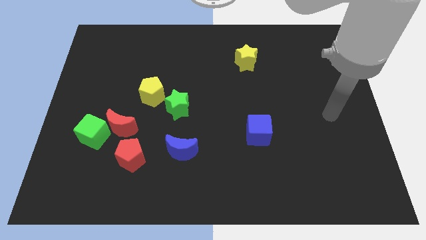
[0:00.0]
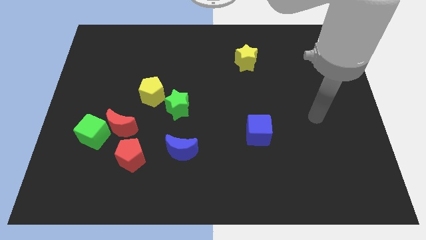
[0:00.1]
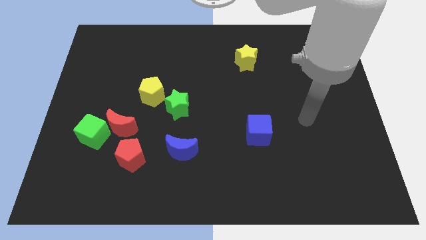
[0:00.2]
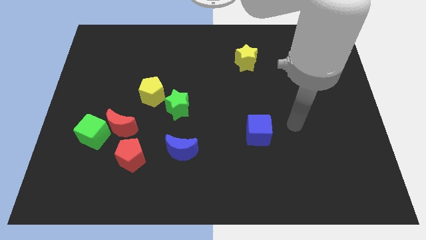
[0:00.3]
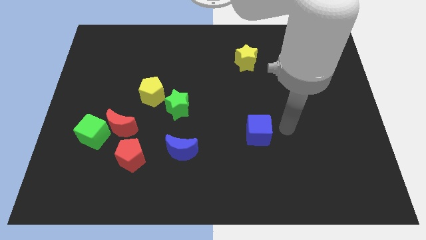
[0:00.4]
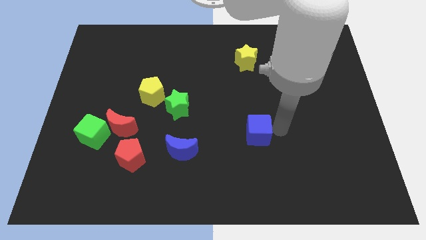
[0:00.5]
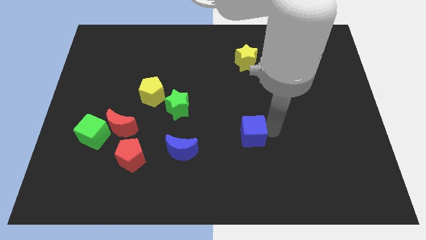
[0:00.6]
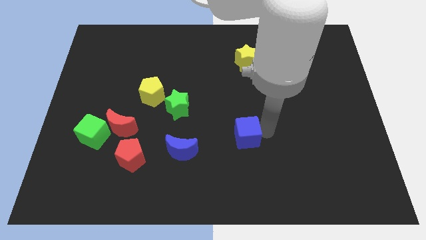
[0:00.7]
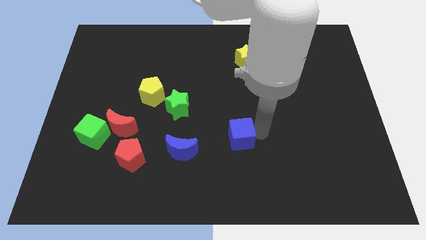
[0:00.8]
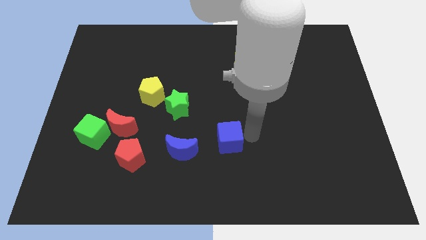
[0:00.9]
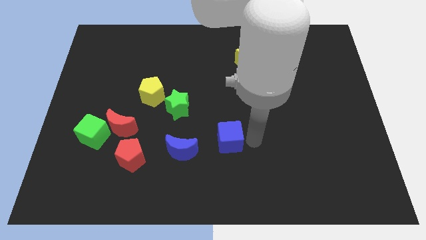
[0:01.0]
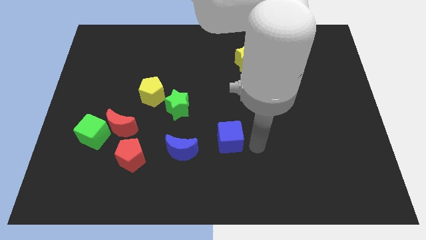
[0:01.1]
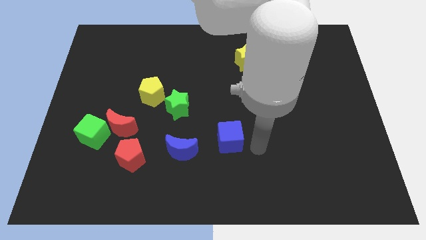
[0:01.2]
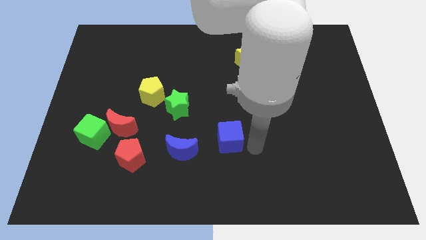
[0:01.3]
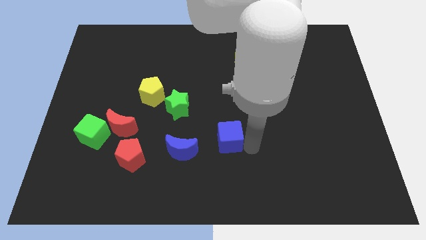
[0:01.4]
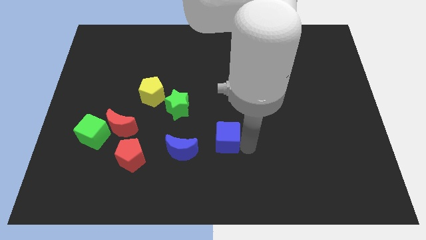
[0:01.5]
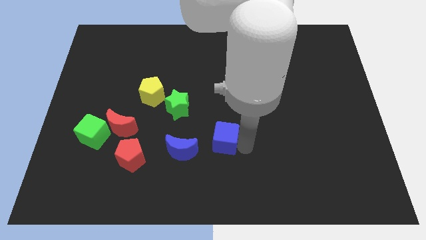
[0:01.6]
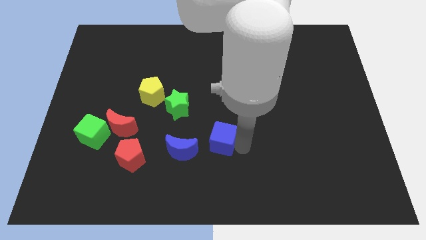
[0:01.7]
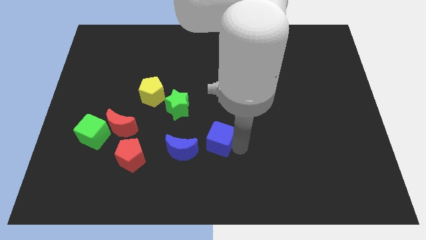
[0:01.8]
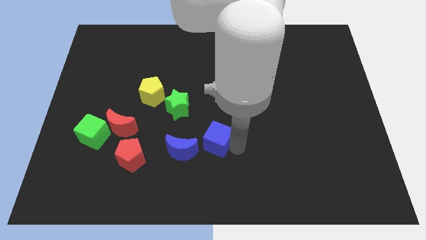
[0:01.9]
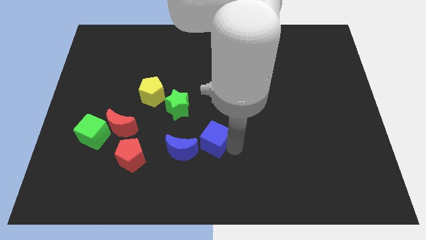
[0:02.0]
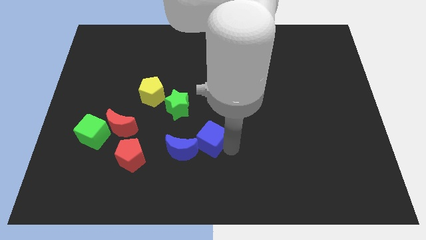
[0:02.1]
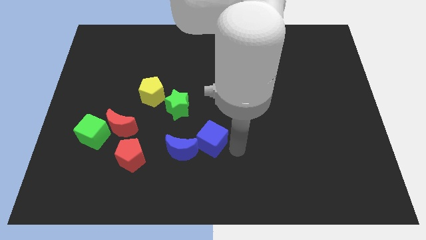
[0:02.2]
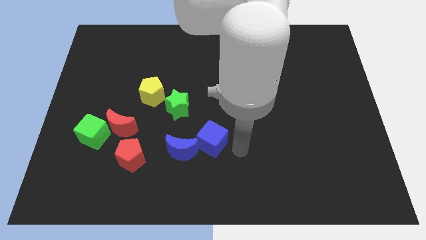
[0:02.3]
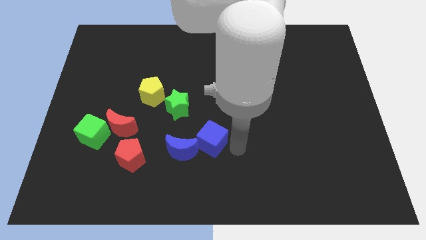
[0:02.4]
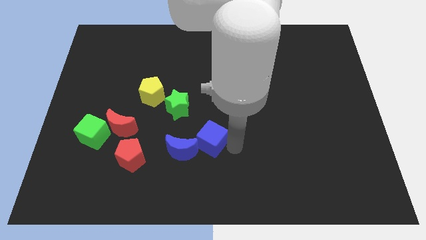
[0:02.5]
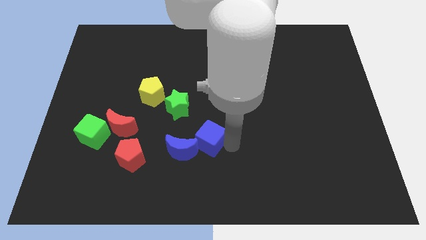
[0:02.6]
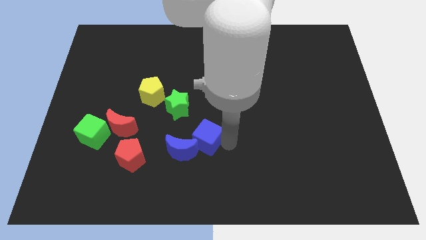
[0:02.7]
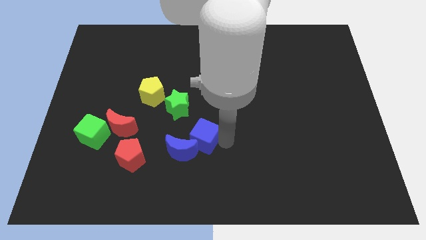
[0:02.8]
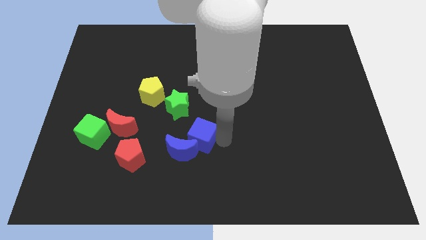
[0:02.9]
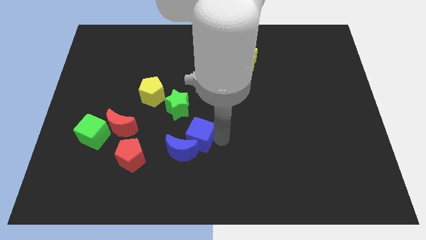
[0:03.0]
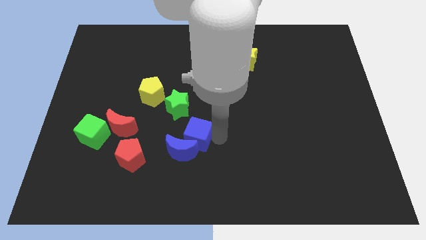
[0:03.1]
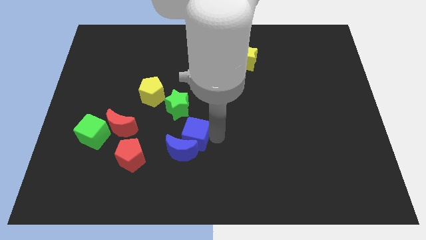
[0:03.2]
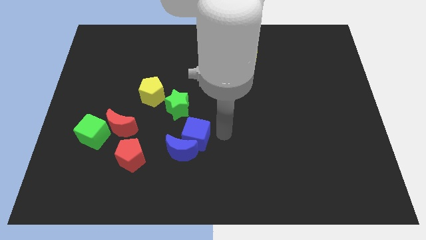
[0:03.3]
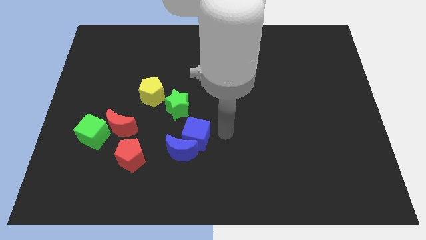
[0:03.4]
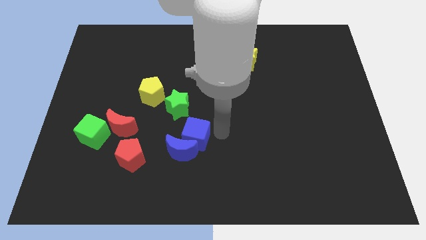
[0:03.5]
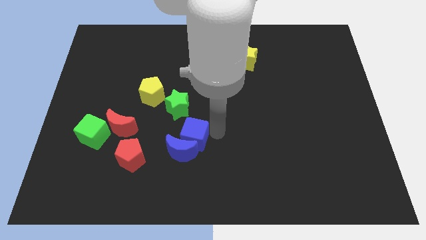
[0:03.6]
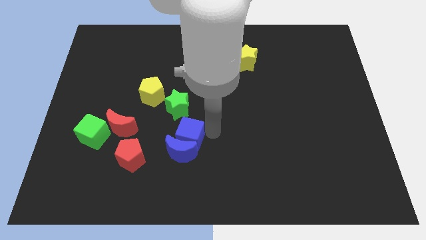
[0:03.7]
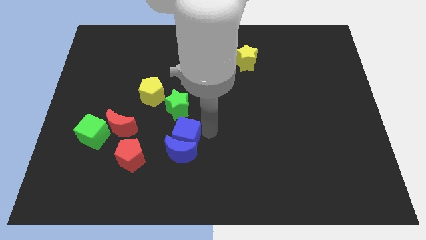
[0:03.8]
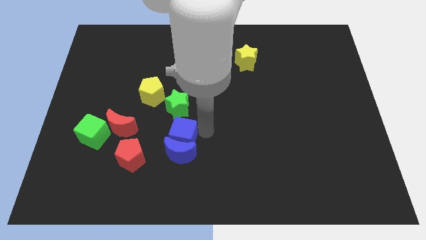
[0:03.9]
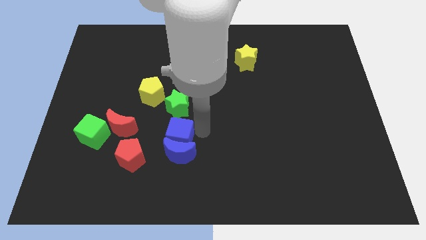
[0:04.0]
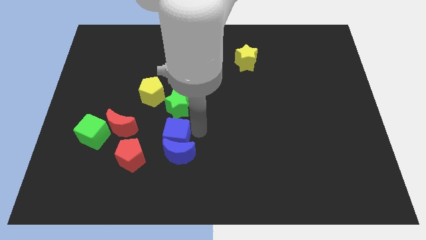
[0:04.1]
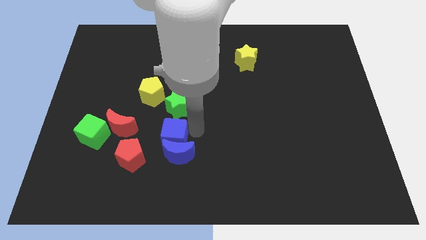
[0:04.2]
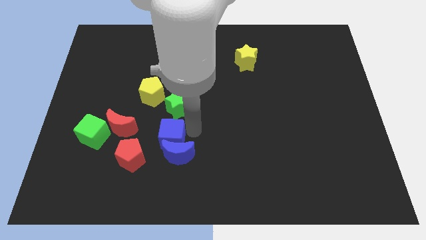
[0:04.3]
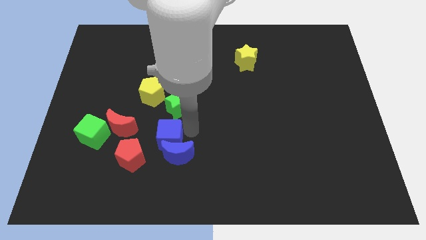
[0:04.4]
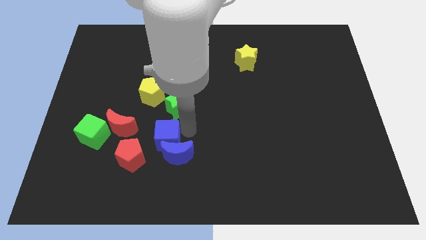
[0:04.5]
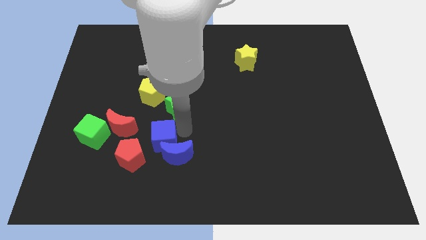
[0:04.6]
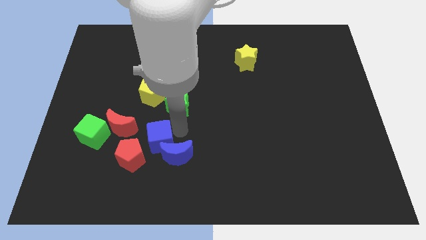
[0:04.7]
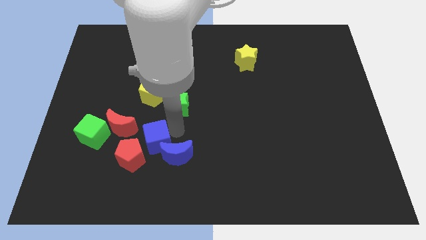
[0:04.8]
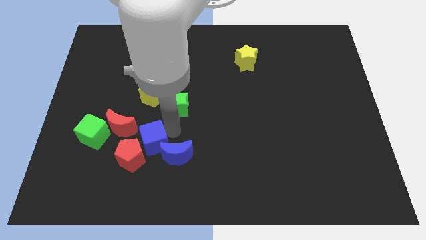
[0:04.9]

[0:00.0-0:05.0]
slide the blue cube to the red pentagon

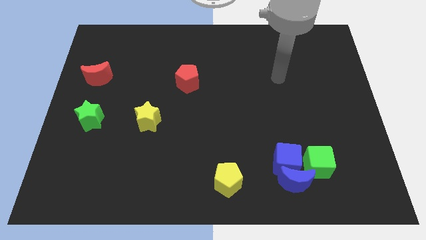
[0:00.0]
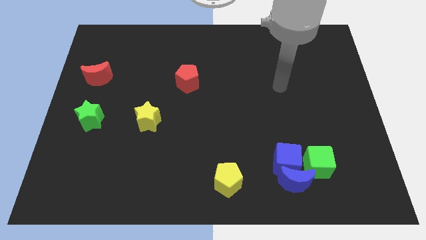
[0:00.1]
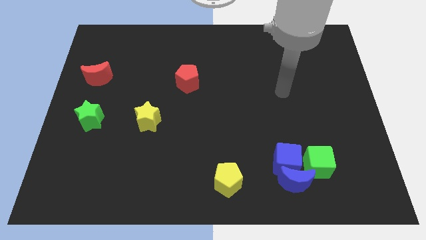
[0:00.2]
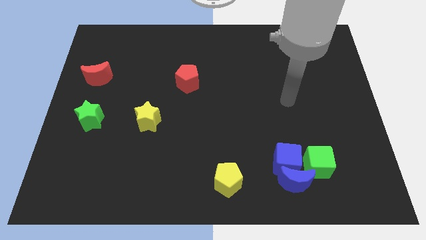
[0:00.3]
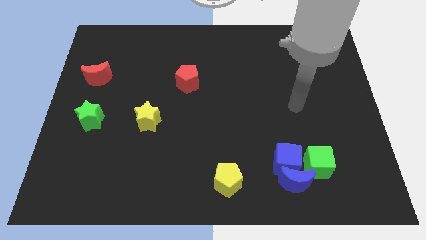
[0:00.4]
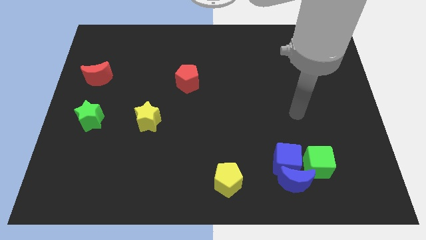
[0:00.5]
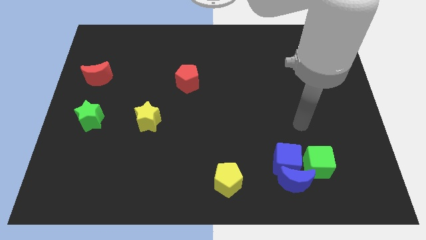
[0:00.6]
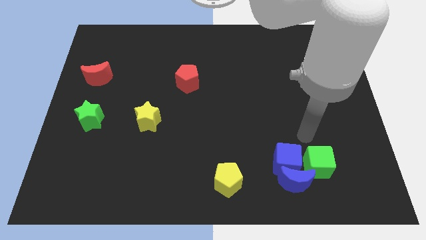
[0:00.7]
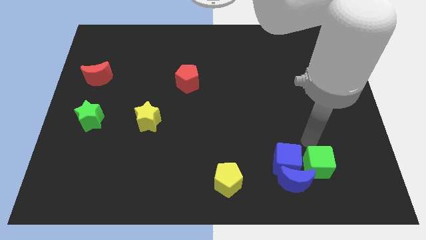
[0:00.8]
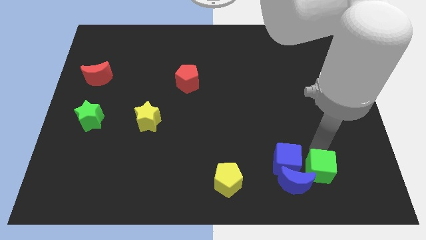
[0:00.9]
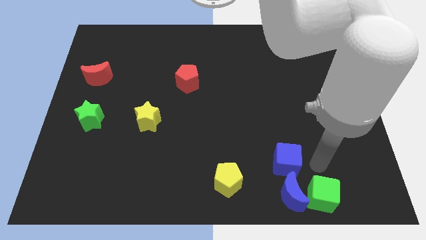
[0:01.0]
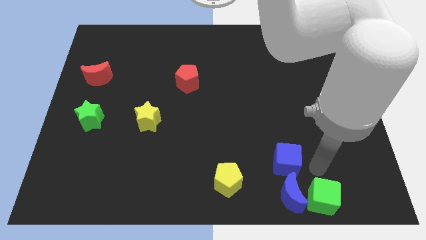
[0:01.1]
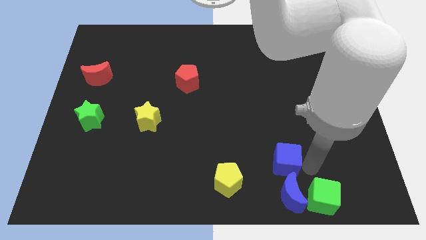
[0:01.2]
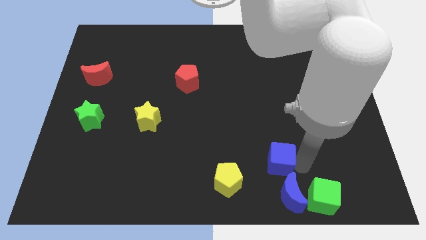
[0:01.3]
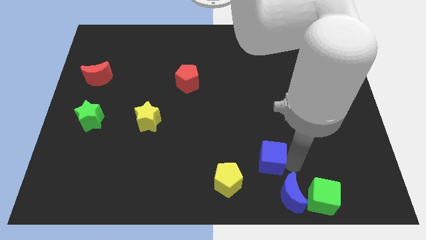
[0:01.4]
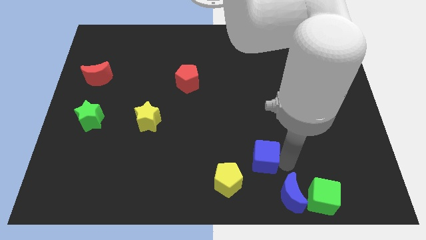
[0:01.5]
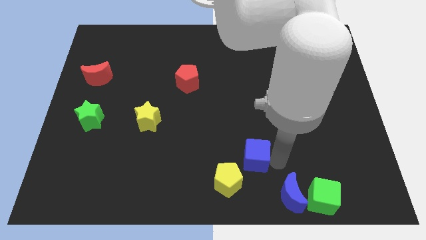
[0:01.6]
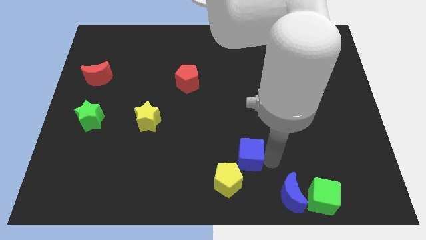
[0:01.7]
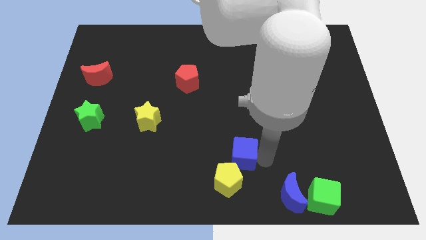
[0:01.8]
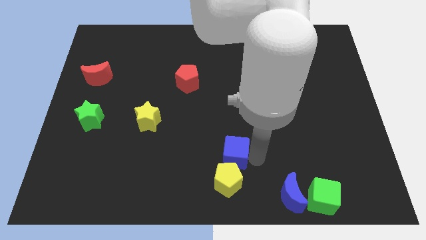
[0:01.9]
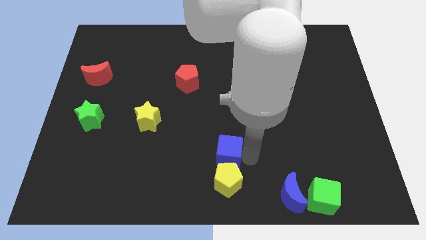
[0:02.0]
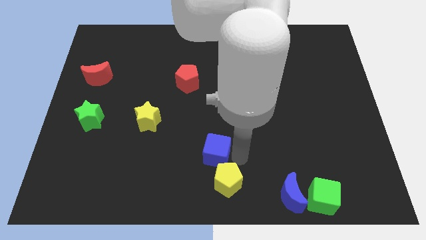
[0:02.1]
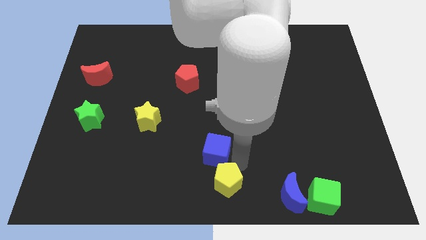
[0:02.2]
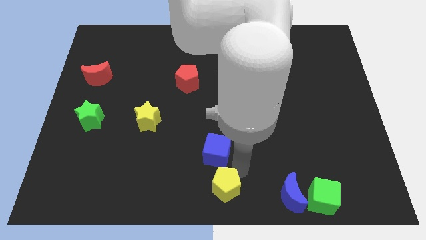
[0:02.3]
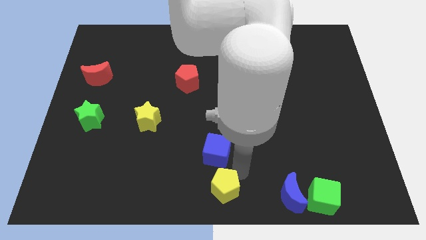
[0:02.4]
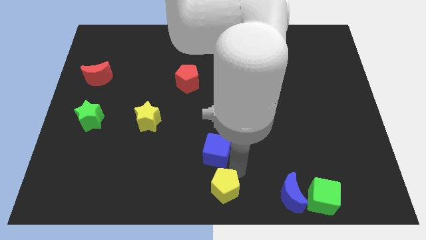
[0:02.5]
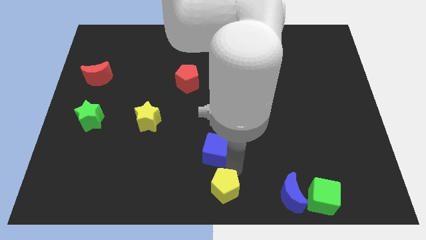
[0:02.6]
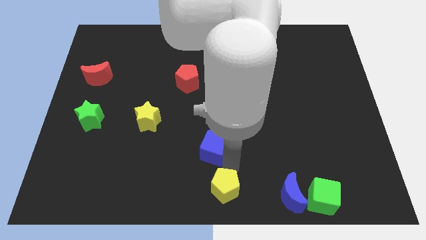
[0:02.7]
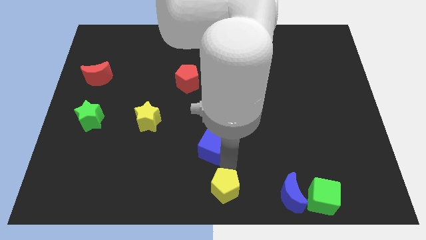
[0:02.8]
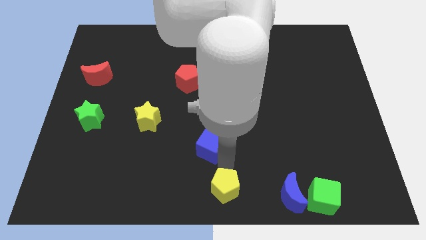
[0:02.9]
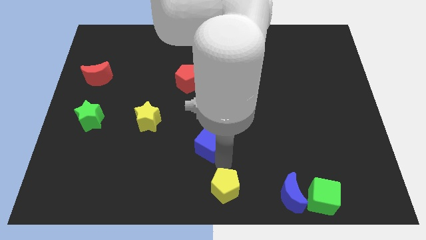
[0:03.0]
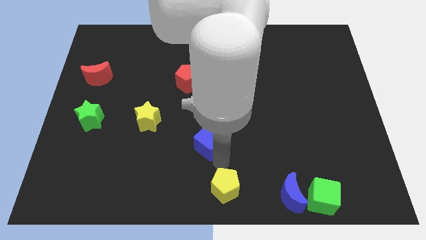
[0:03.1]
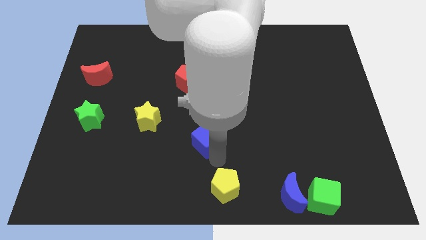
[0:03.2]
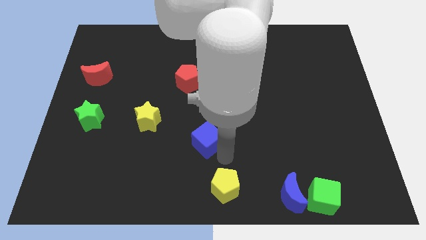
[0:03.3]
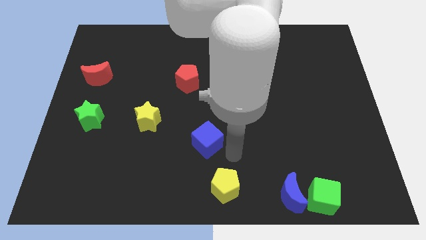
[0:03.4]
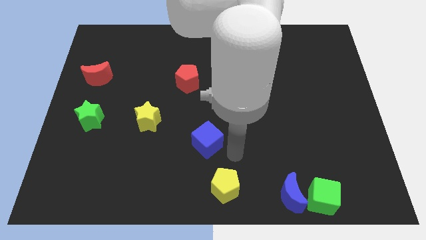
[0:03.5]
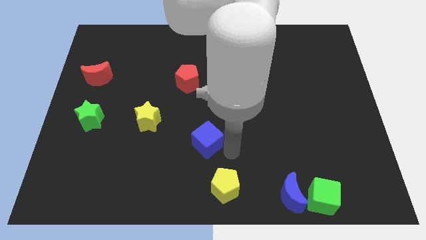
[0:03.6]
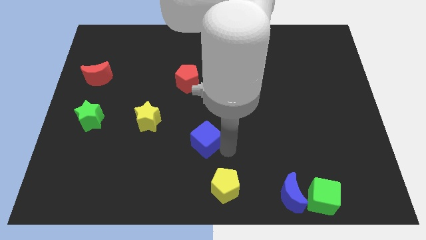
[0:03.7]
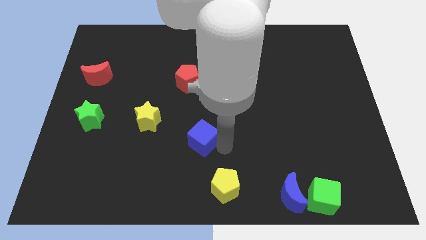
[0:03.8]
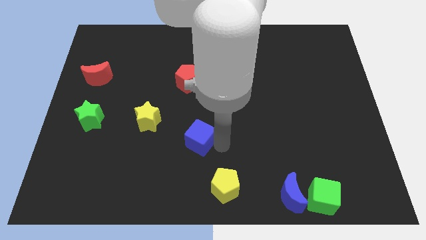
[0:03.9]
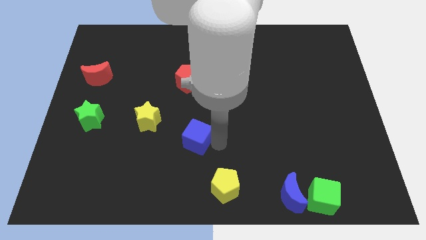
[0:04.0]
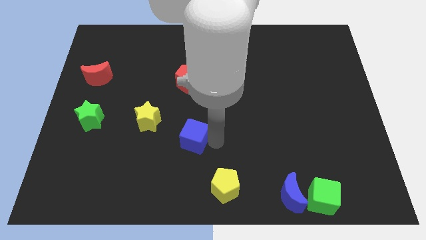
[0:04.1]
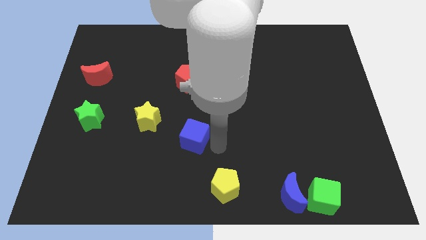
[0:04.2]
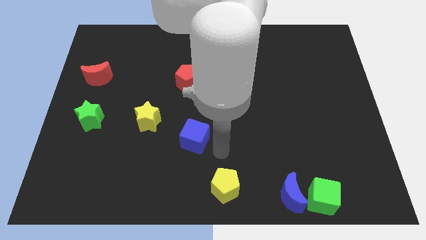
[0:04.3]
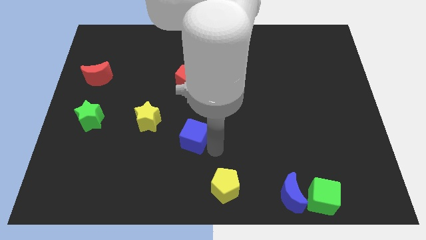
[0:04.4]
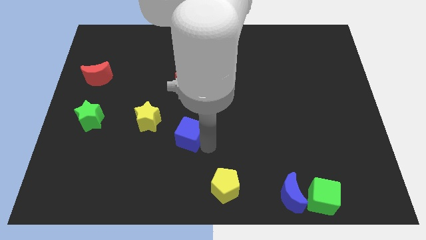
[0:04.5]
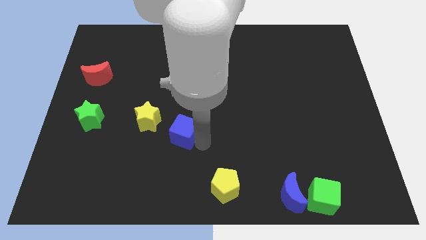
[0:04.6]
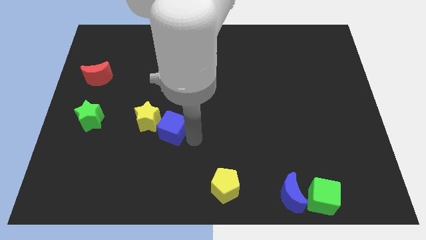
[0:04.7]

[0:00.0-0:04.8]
push the blue cube next to the yellow star
